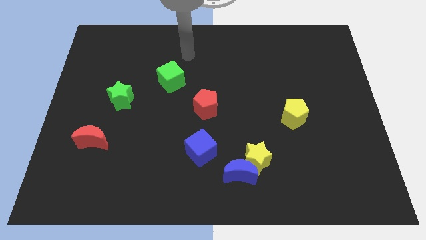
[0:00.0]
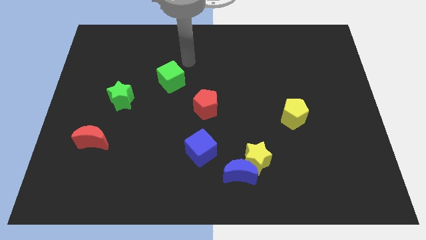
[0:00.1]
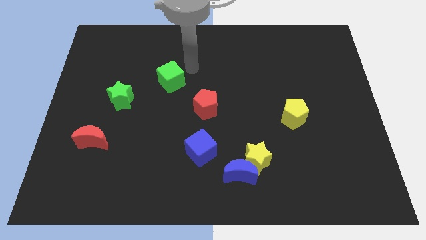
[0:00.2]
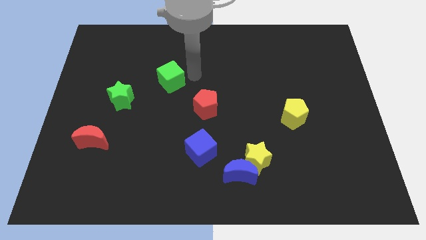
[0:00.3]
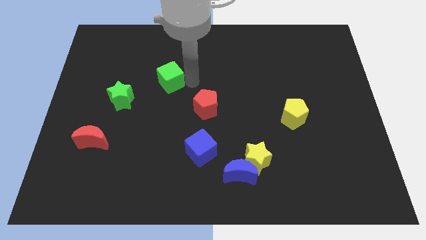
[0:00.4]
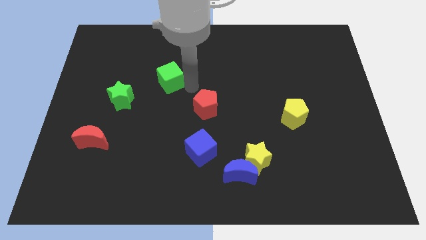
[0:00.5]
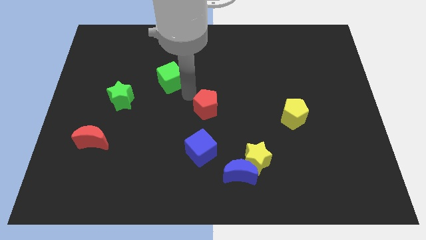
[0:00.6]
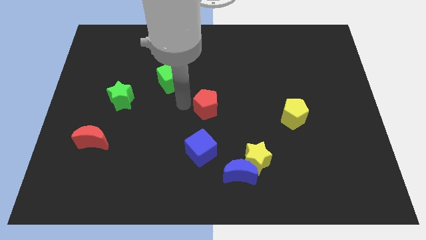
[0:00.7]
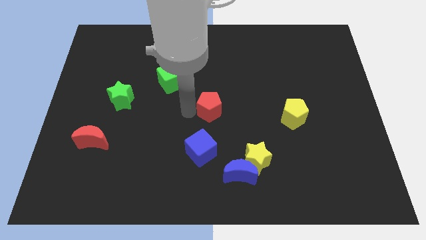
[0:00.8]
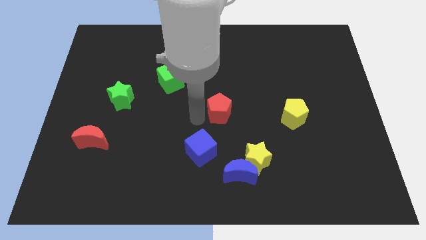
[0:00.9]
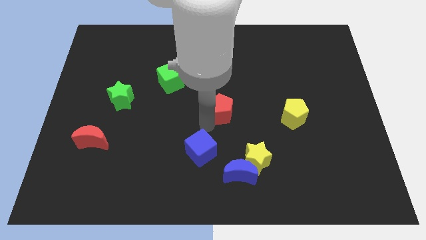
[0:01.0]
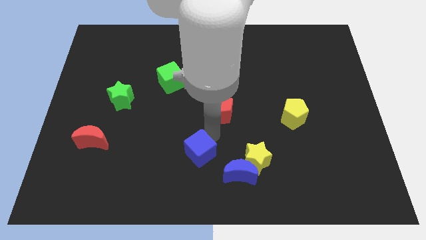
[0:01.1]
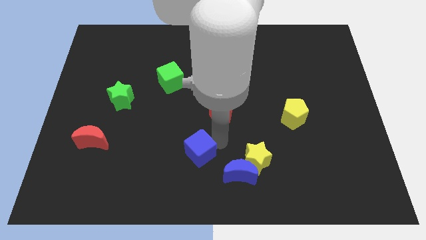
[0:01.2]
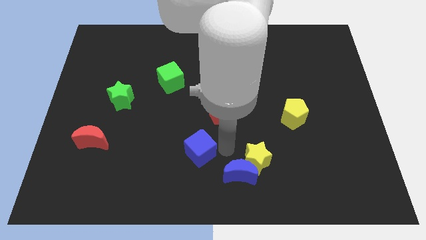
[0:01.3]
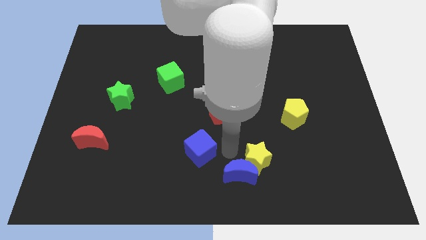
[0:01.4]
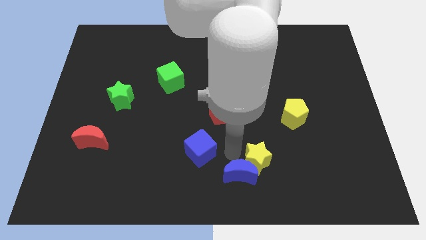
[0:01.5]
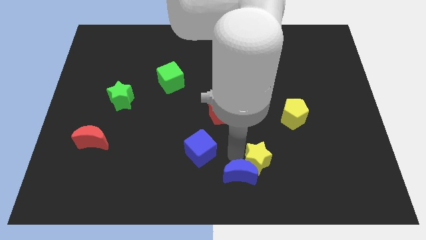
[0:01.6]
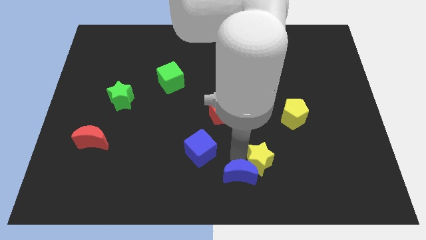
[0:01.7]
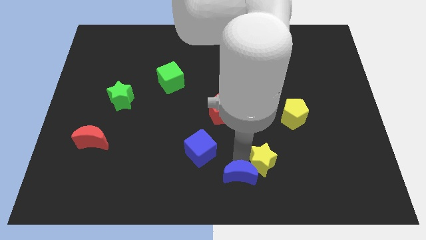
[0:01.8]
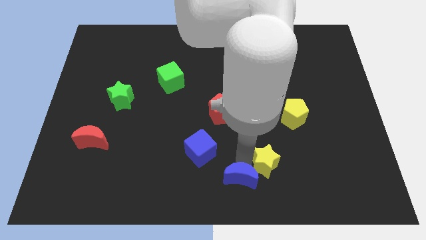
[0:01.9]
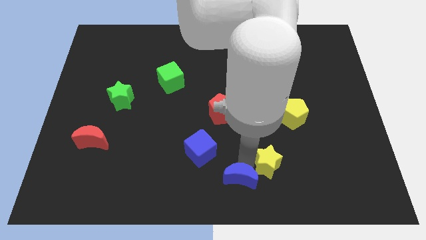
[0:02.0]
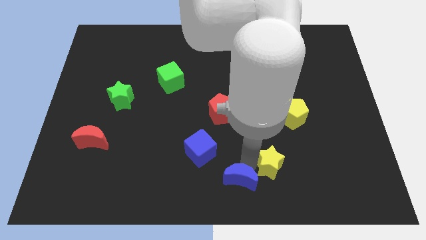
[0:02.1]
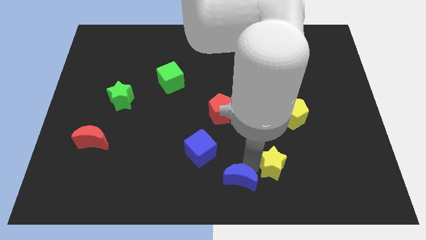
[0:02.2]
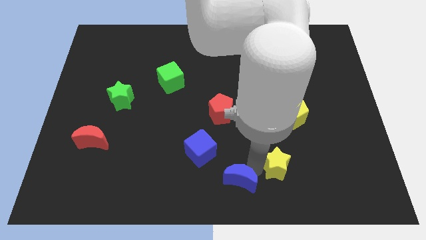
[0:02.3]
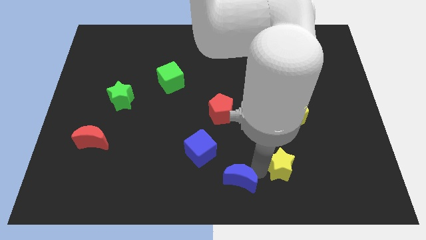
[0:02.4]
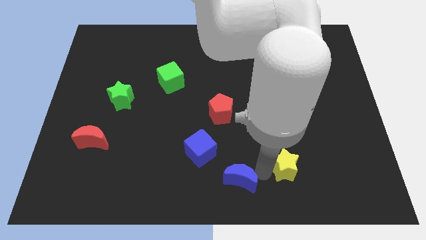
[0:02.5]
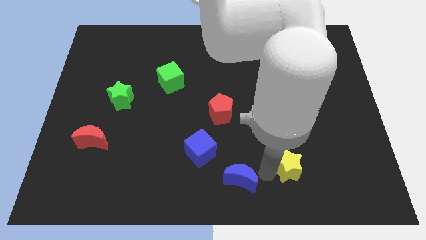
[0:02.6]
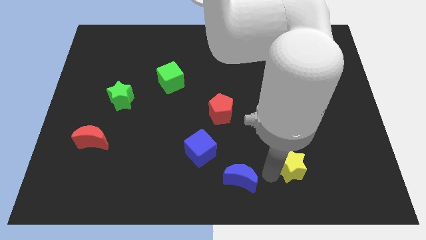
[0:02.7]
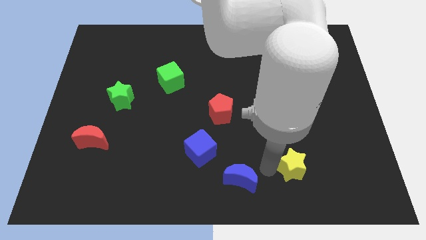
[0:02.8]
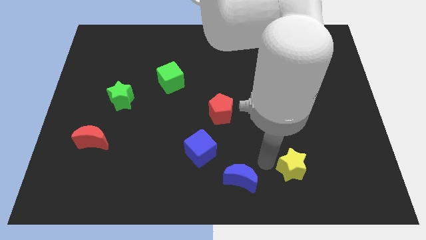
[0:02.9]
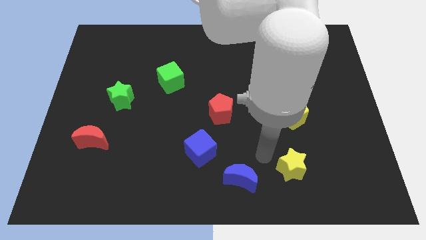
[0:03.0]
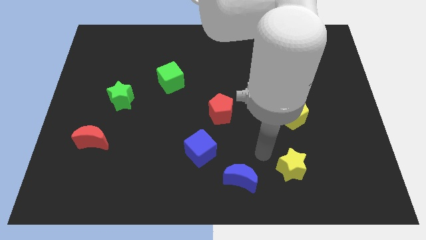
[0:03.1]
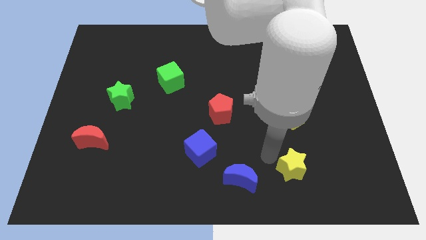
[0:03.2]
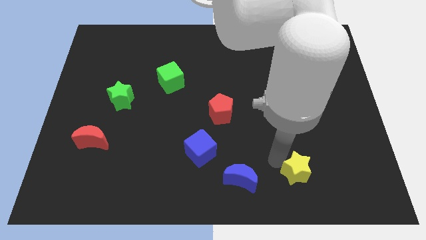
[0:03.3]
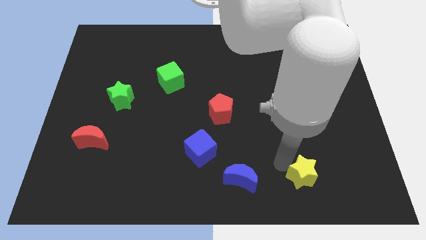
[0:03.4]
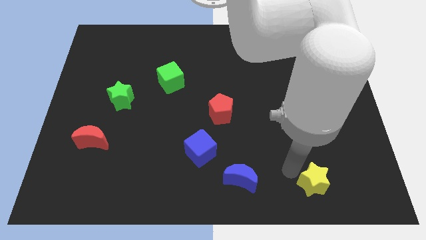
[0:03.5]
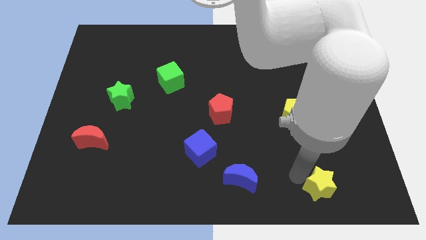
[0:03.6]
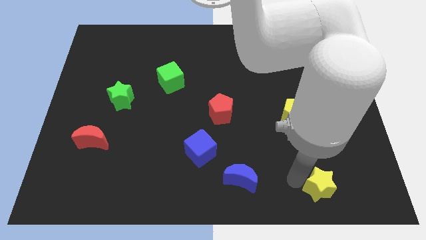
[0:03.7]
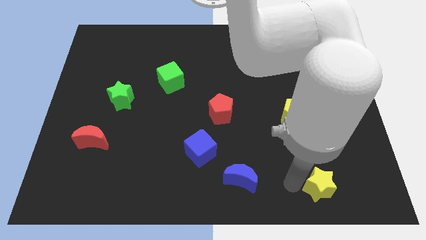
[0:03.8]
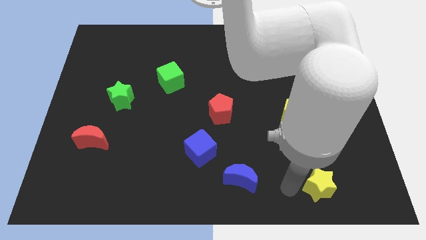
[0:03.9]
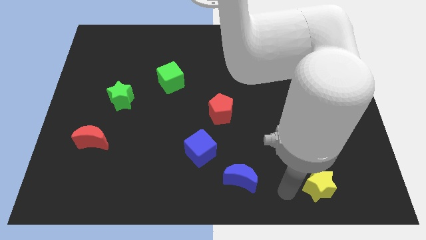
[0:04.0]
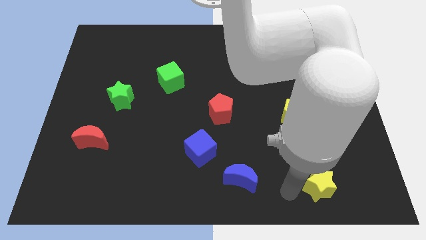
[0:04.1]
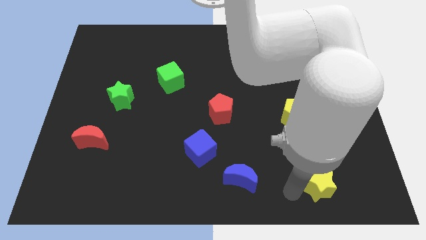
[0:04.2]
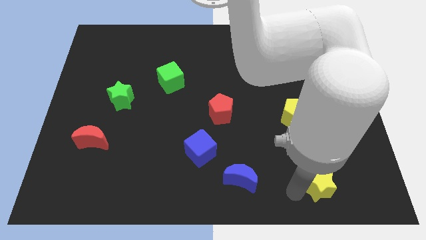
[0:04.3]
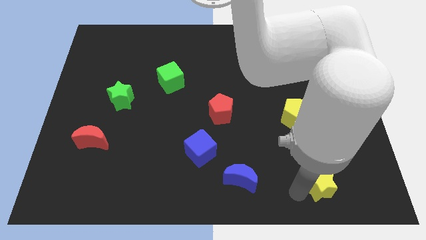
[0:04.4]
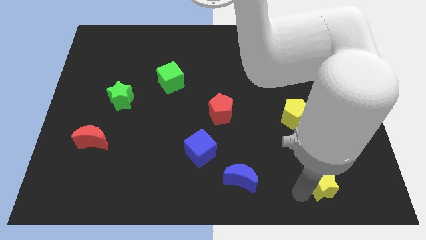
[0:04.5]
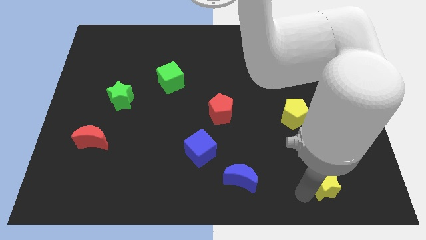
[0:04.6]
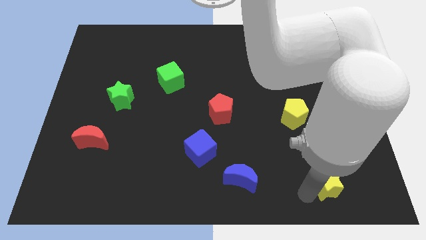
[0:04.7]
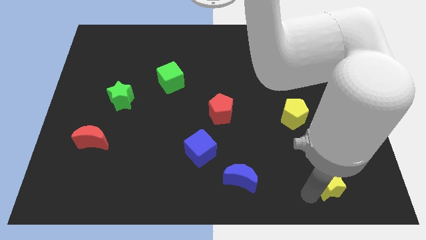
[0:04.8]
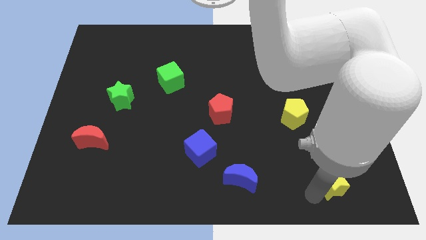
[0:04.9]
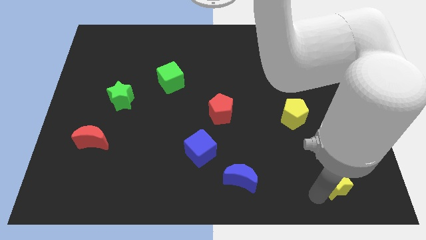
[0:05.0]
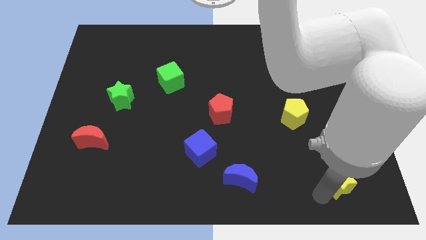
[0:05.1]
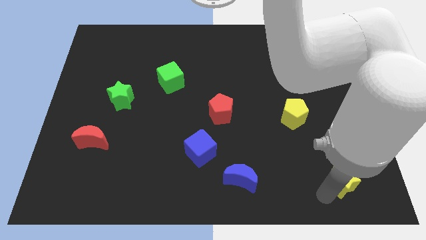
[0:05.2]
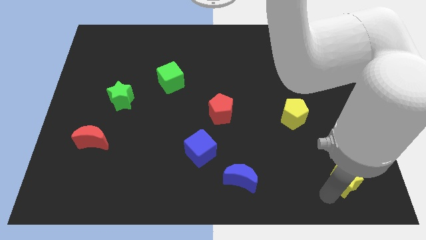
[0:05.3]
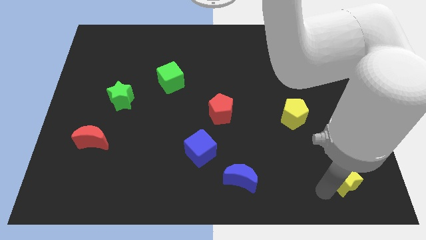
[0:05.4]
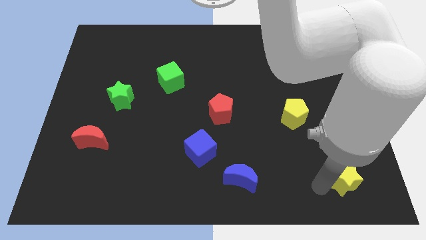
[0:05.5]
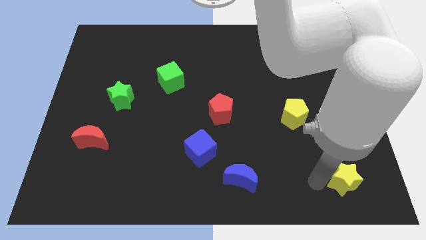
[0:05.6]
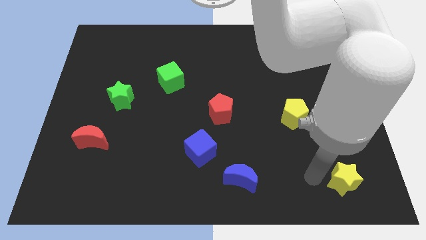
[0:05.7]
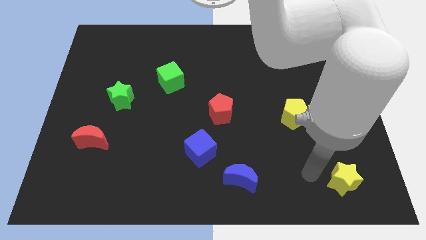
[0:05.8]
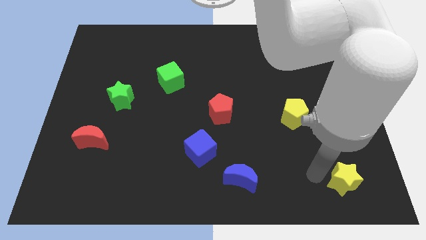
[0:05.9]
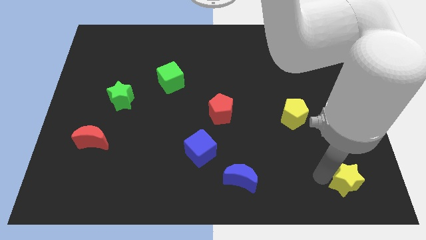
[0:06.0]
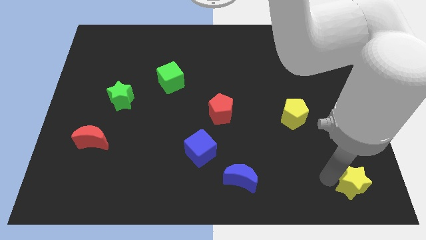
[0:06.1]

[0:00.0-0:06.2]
put the yellow star to the bottom right corner

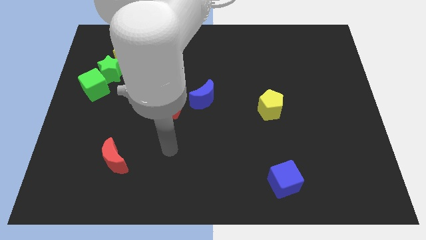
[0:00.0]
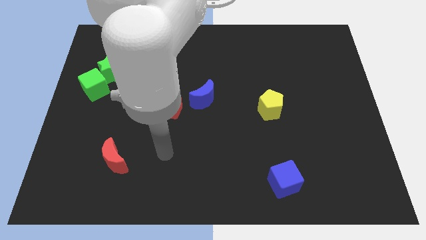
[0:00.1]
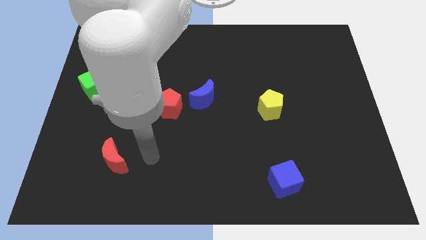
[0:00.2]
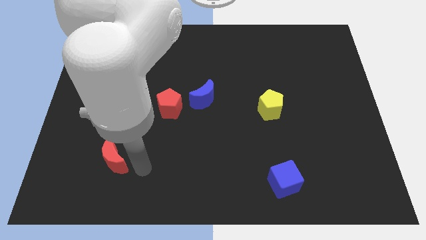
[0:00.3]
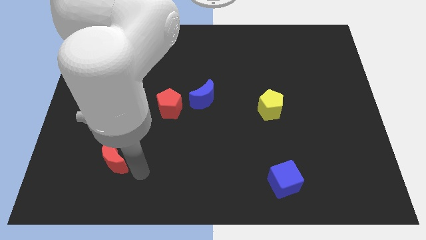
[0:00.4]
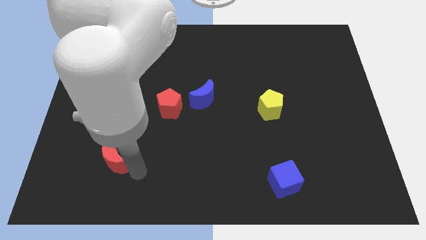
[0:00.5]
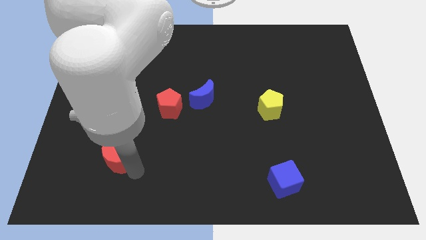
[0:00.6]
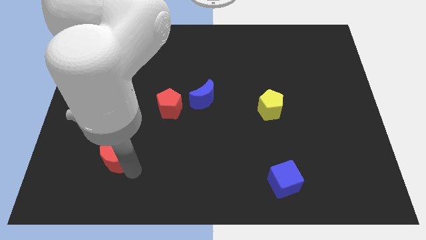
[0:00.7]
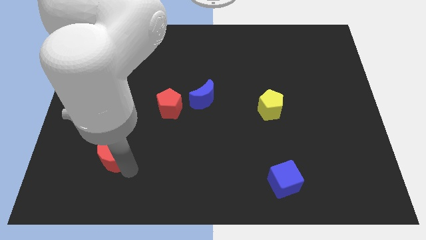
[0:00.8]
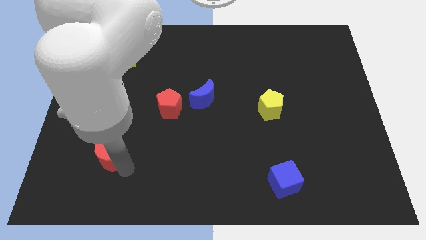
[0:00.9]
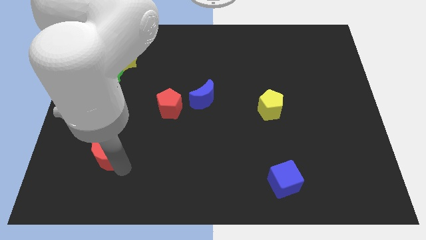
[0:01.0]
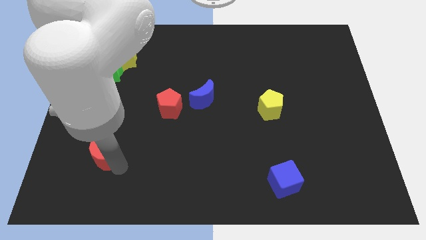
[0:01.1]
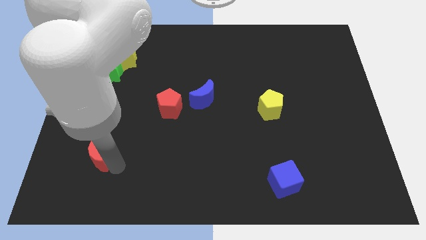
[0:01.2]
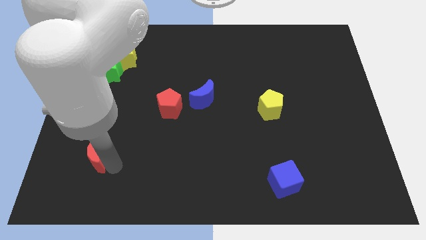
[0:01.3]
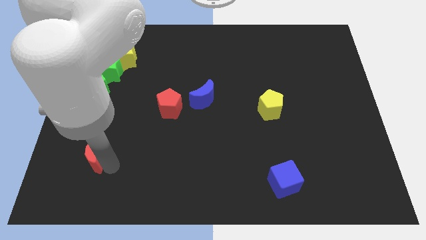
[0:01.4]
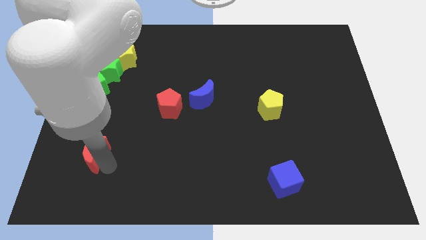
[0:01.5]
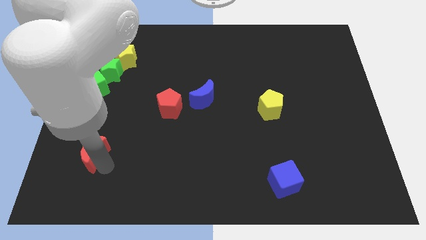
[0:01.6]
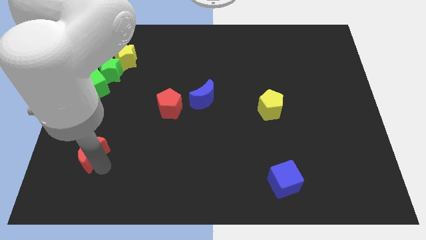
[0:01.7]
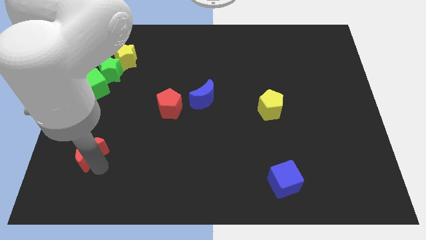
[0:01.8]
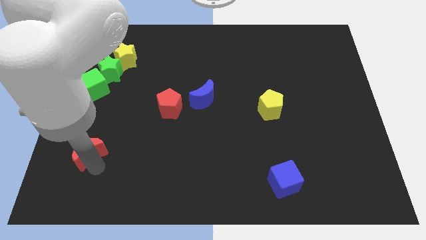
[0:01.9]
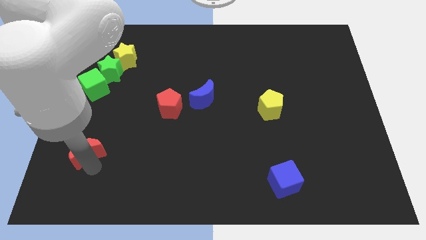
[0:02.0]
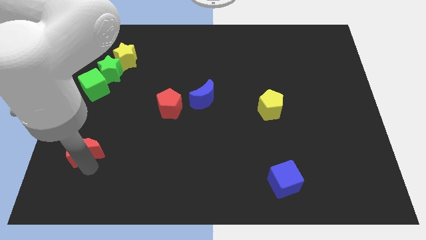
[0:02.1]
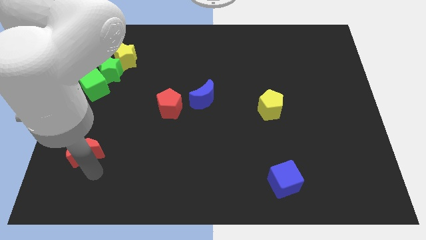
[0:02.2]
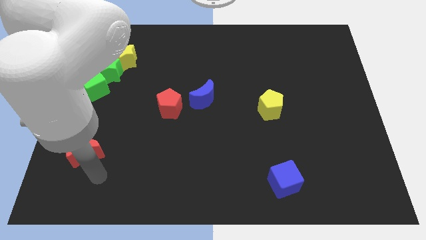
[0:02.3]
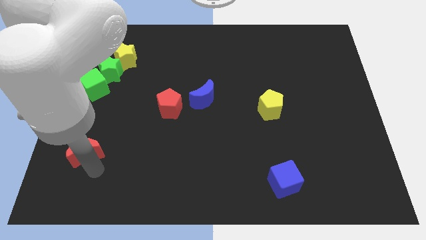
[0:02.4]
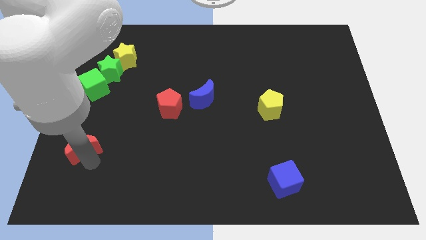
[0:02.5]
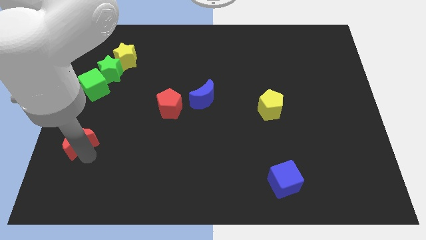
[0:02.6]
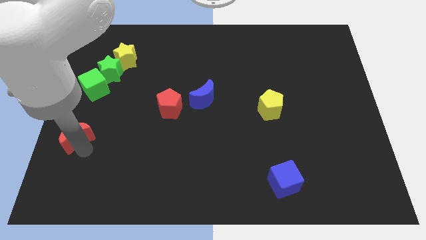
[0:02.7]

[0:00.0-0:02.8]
push the red moon to the left side
